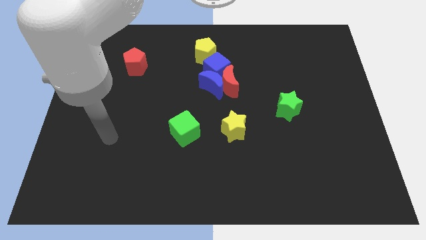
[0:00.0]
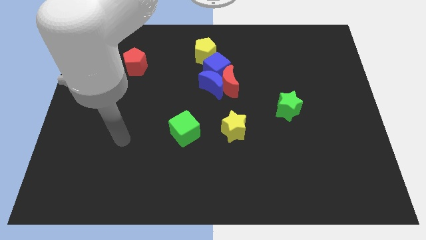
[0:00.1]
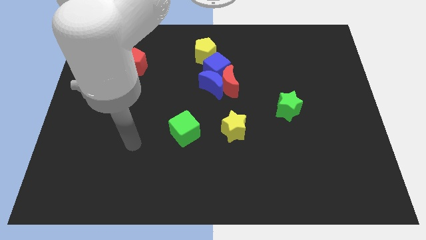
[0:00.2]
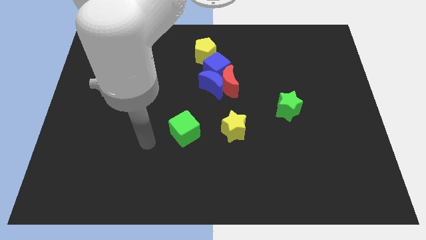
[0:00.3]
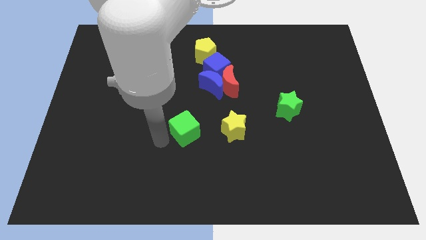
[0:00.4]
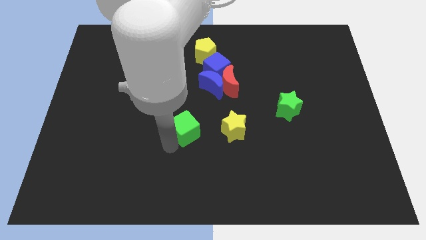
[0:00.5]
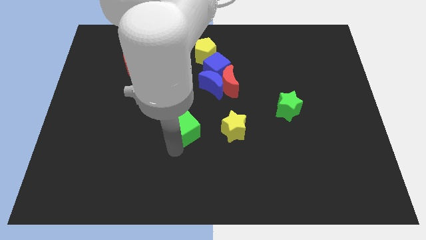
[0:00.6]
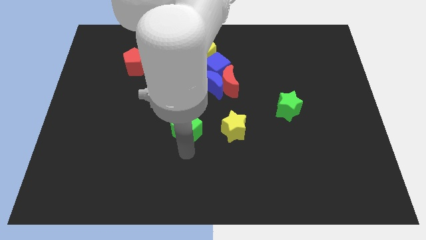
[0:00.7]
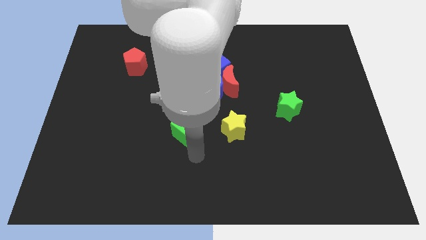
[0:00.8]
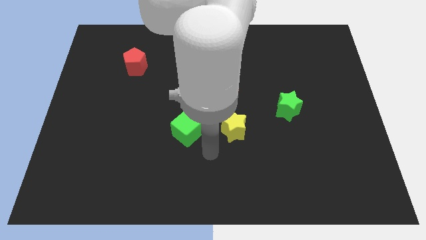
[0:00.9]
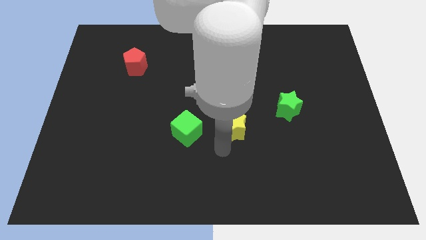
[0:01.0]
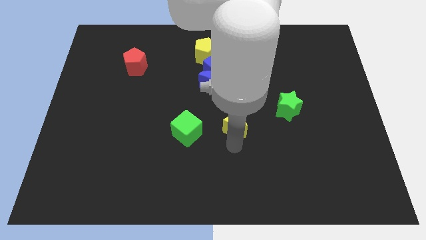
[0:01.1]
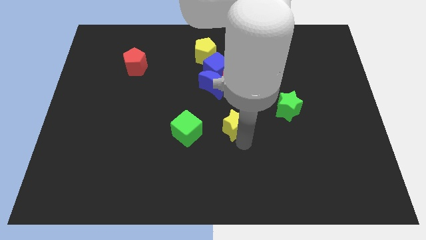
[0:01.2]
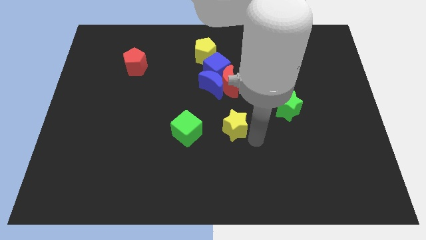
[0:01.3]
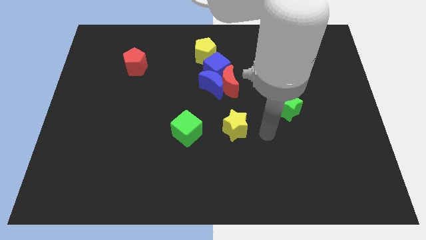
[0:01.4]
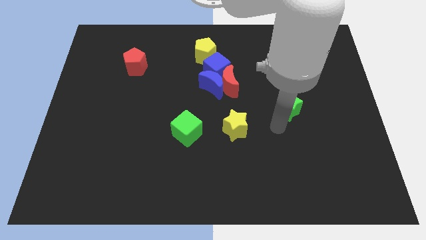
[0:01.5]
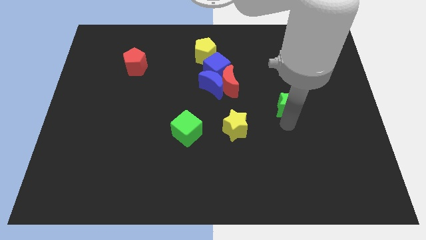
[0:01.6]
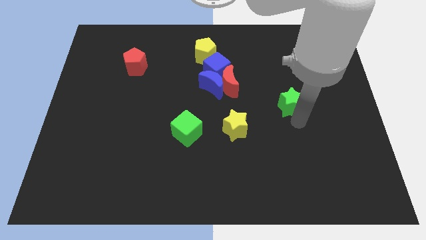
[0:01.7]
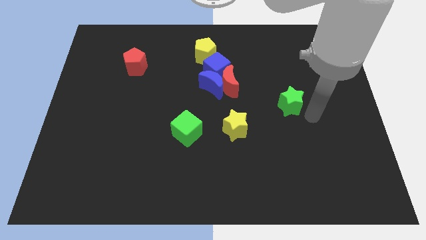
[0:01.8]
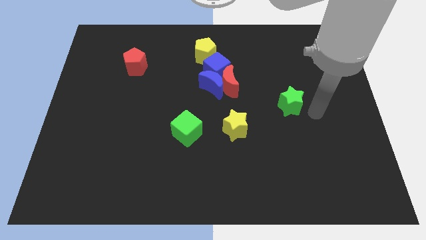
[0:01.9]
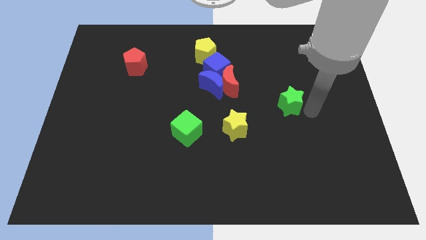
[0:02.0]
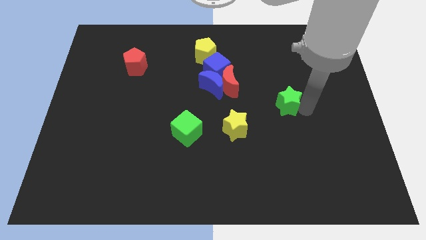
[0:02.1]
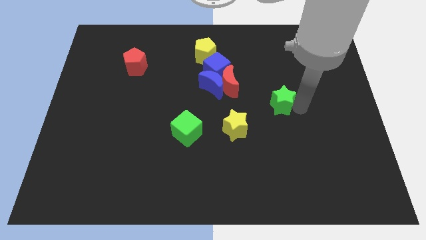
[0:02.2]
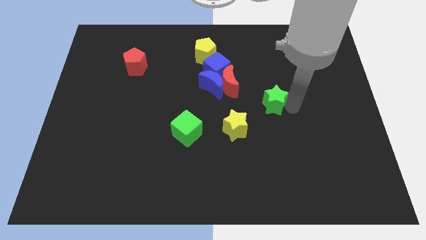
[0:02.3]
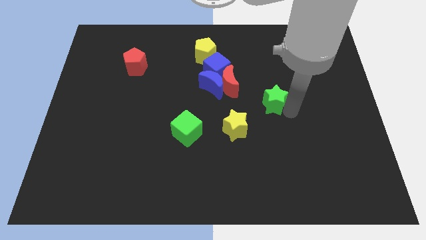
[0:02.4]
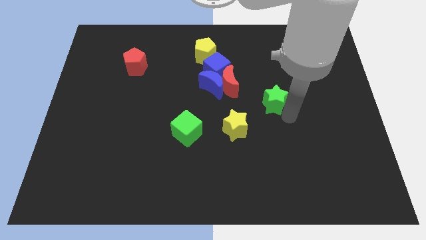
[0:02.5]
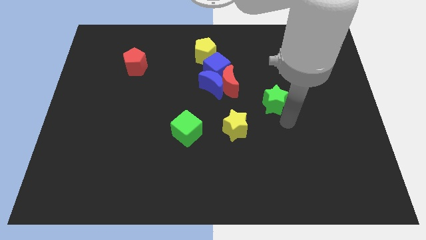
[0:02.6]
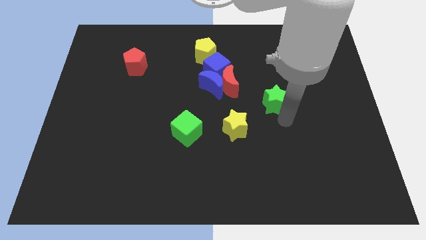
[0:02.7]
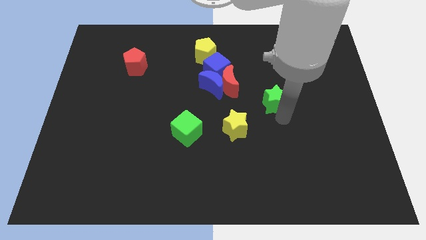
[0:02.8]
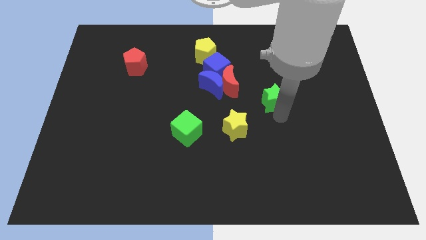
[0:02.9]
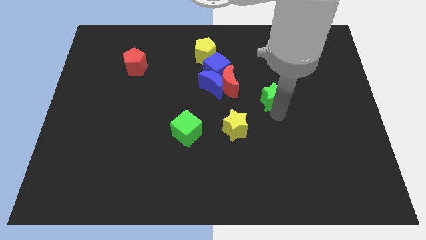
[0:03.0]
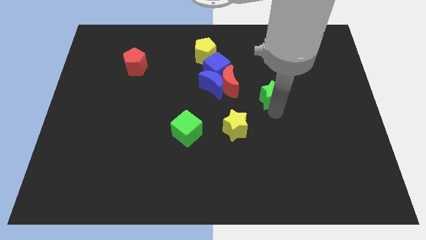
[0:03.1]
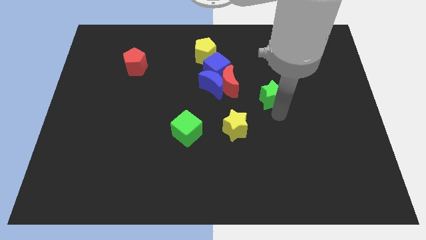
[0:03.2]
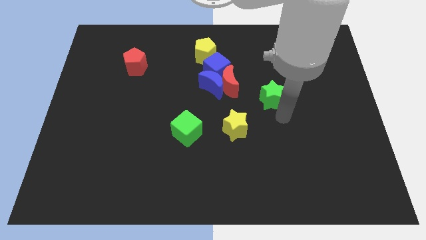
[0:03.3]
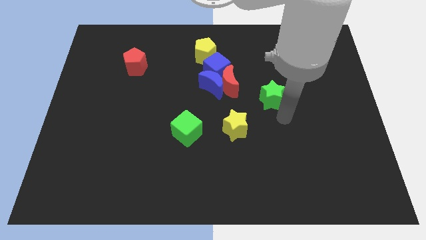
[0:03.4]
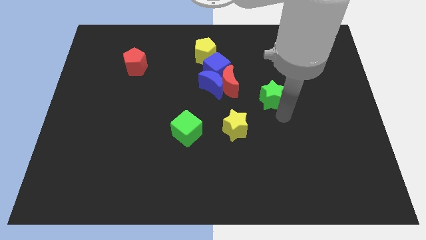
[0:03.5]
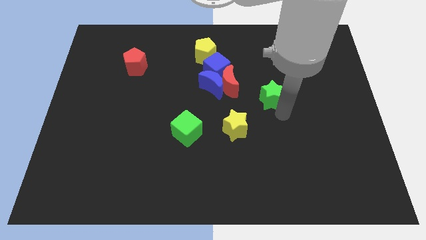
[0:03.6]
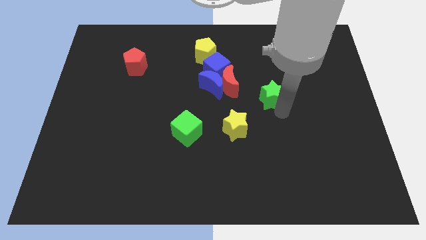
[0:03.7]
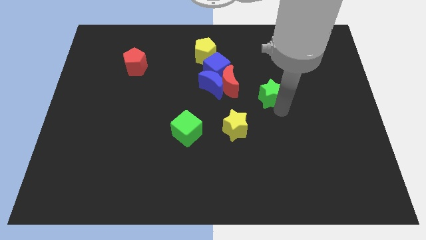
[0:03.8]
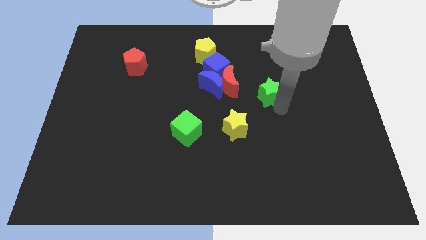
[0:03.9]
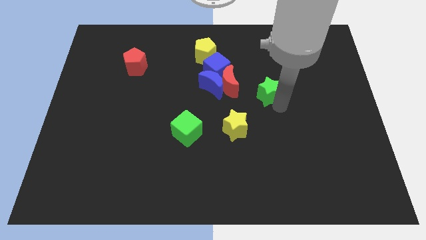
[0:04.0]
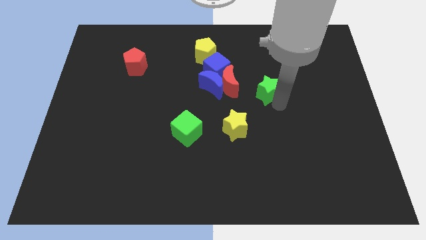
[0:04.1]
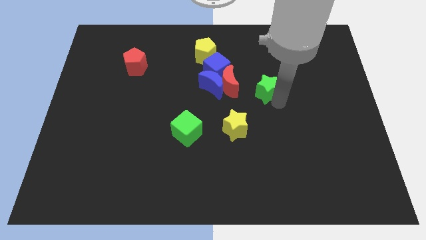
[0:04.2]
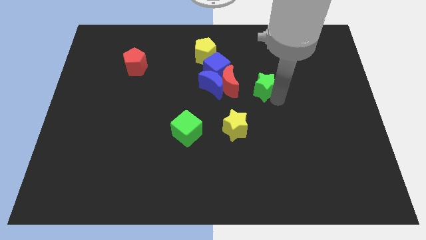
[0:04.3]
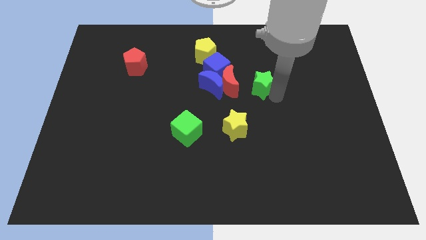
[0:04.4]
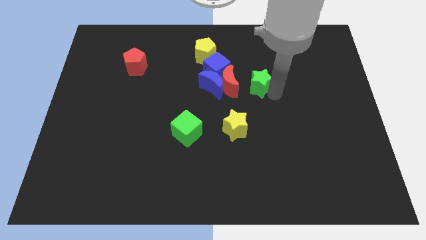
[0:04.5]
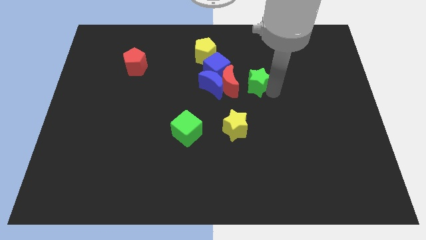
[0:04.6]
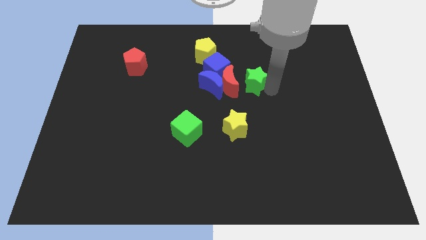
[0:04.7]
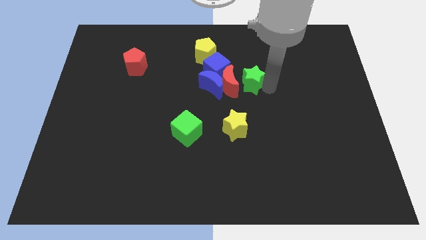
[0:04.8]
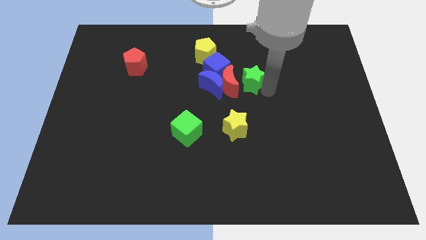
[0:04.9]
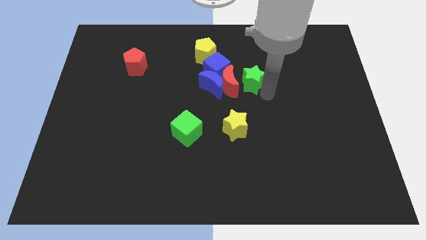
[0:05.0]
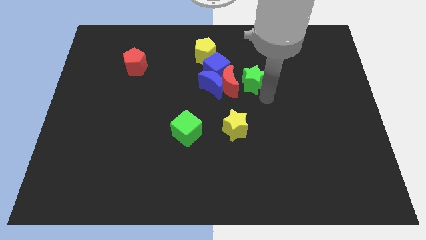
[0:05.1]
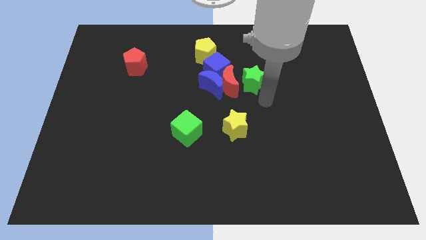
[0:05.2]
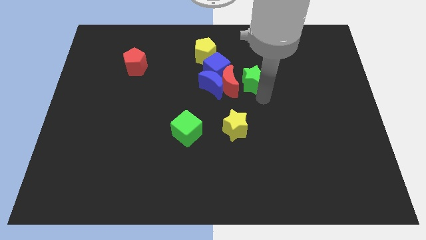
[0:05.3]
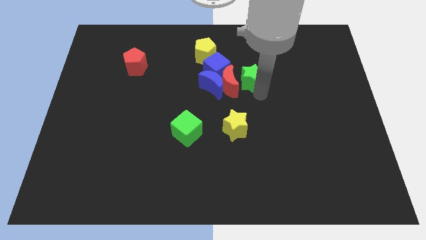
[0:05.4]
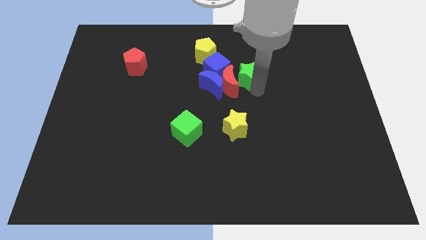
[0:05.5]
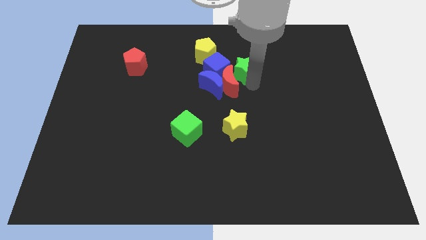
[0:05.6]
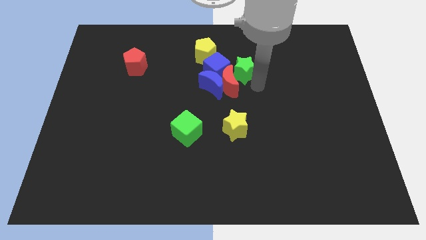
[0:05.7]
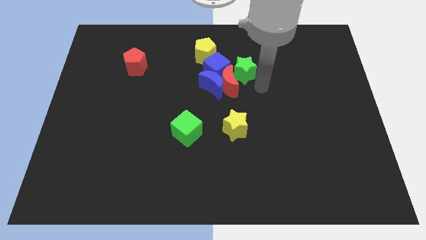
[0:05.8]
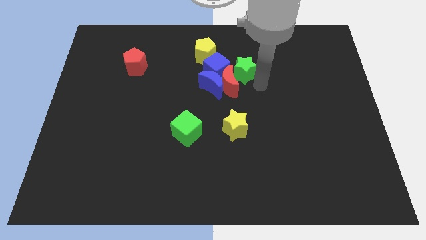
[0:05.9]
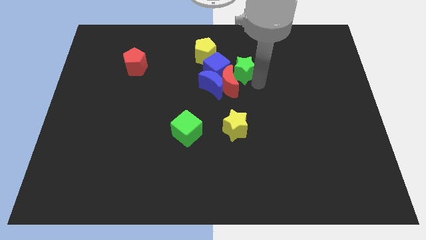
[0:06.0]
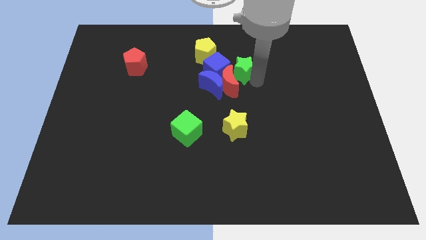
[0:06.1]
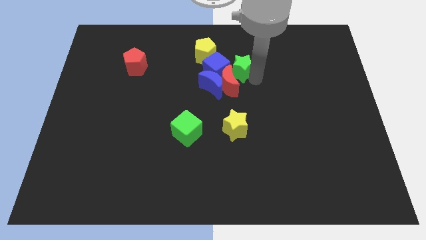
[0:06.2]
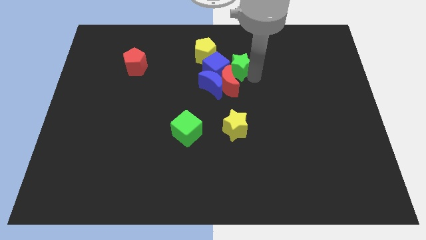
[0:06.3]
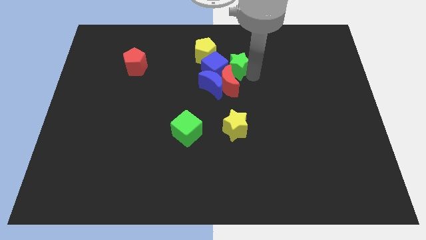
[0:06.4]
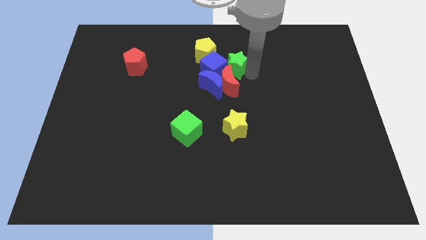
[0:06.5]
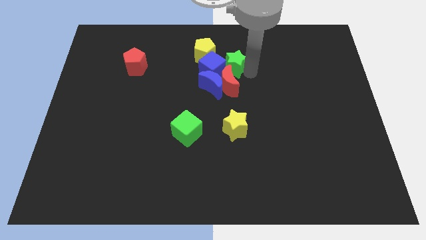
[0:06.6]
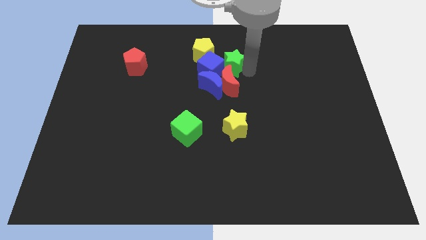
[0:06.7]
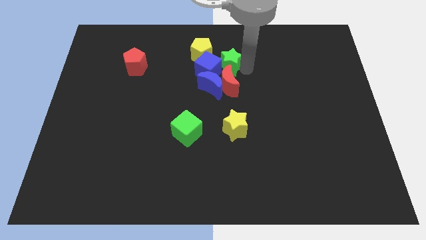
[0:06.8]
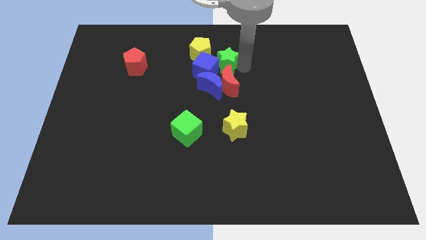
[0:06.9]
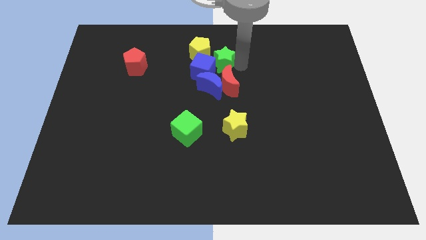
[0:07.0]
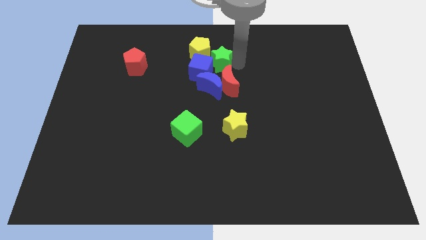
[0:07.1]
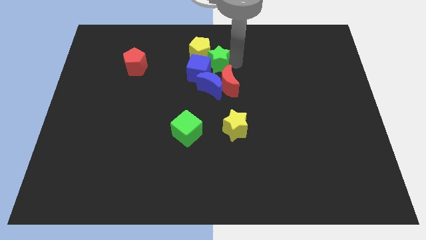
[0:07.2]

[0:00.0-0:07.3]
move the green star to the yellow pentagon

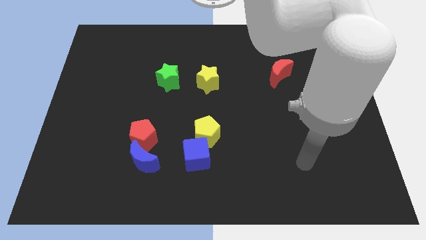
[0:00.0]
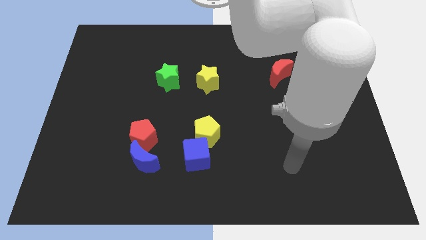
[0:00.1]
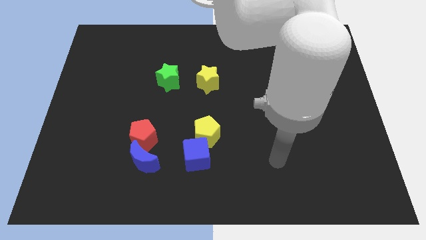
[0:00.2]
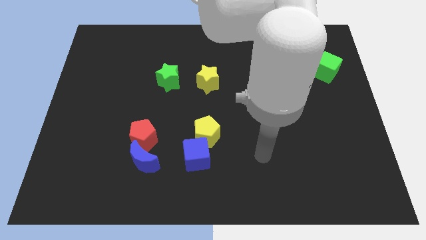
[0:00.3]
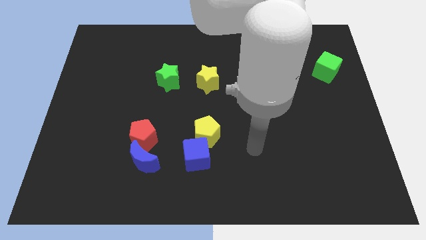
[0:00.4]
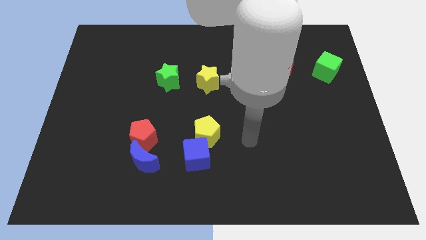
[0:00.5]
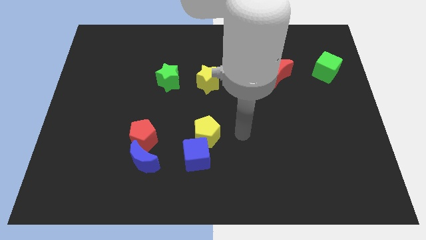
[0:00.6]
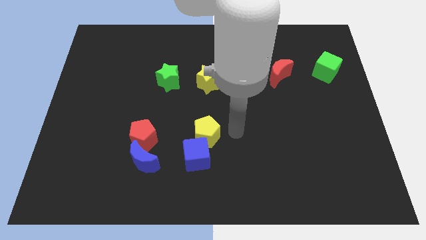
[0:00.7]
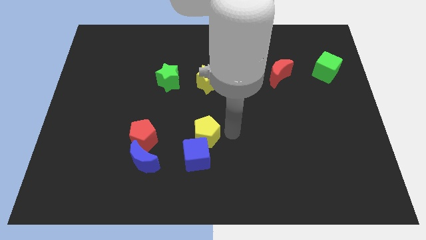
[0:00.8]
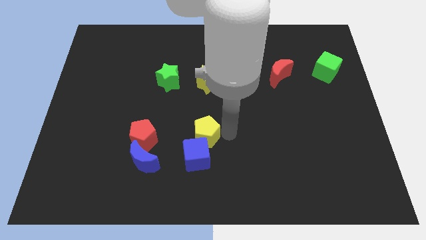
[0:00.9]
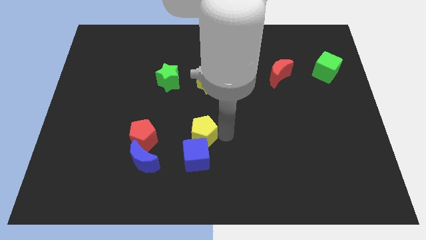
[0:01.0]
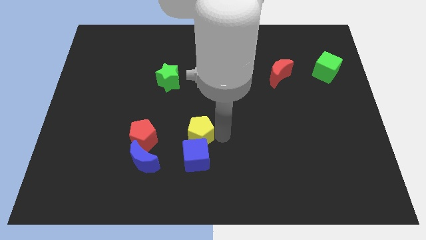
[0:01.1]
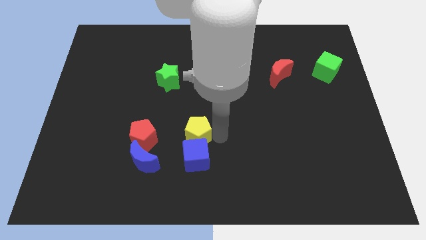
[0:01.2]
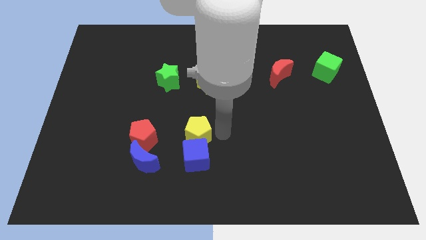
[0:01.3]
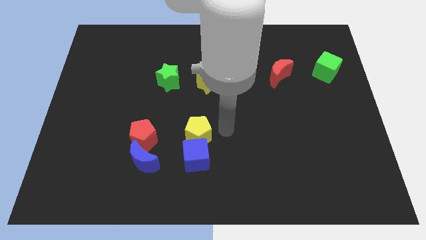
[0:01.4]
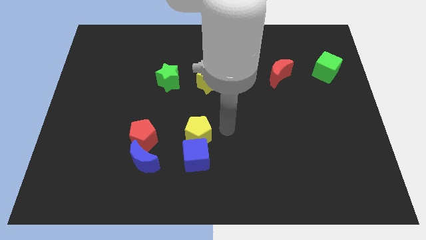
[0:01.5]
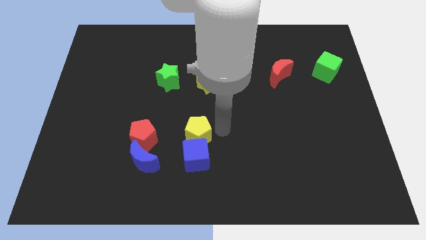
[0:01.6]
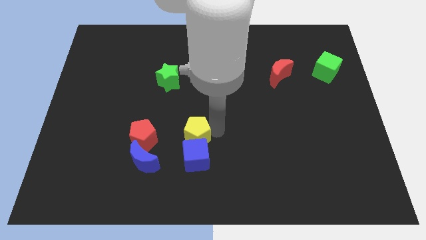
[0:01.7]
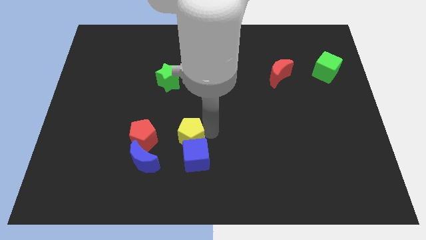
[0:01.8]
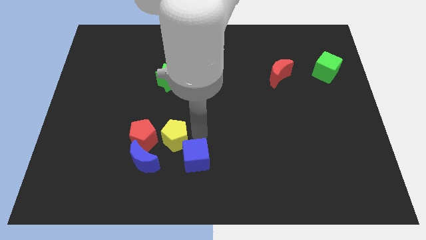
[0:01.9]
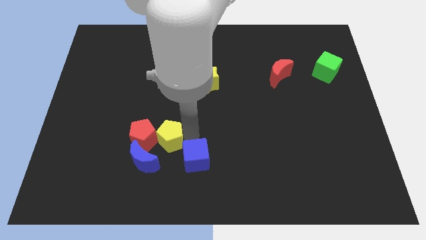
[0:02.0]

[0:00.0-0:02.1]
put the yellow pentagon to the red pentagon
